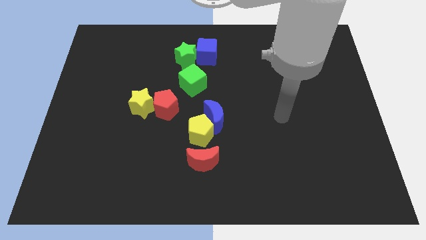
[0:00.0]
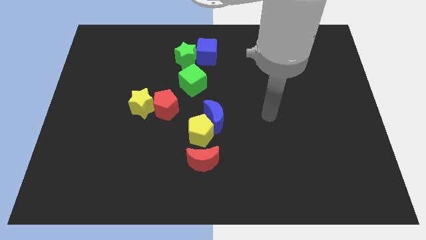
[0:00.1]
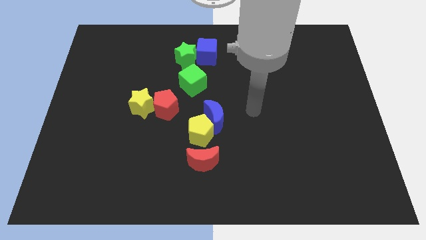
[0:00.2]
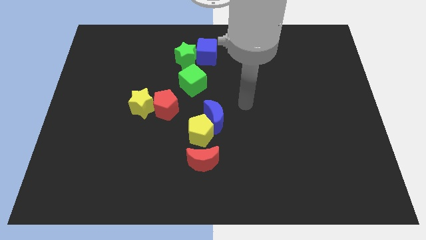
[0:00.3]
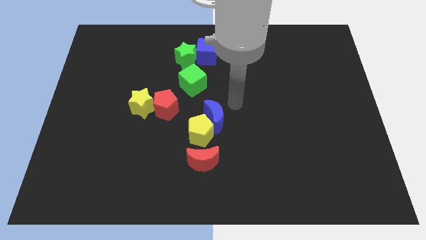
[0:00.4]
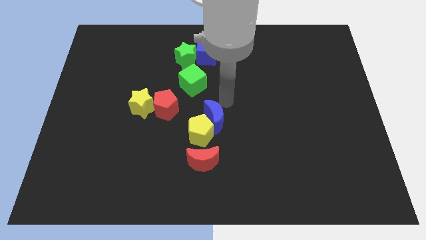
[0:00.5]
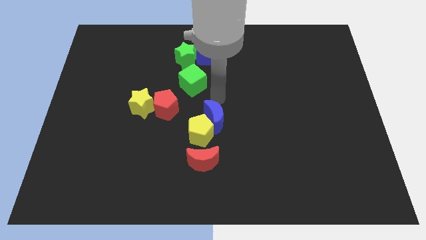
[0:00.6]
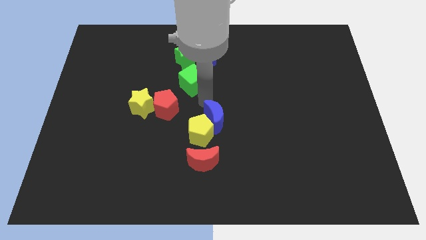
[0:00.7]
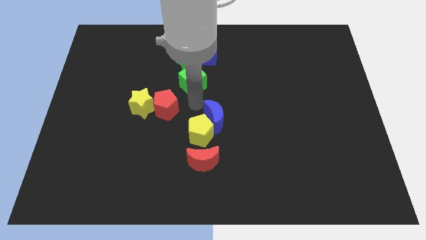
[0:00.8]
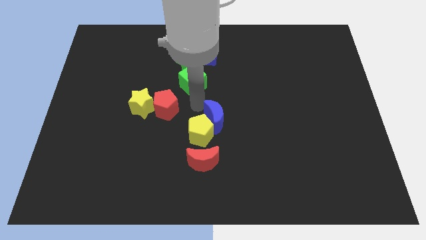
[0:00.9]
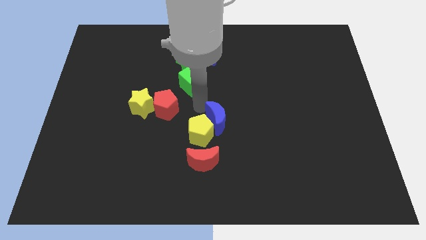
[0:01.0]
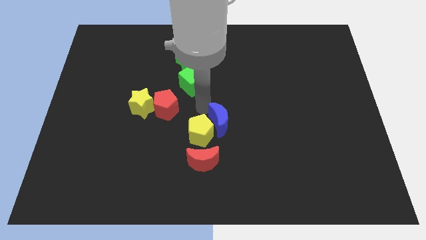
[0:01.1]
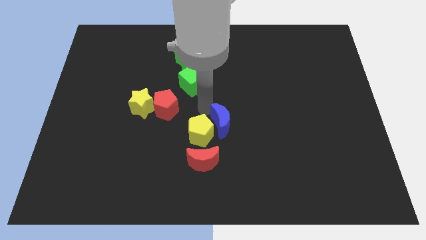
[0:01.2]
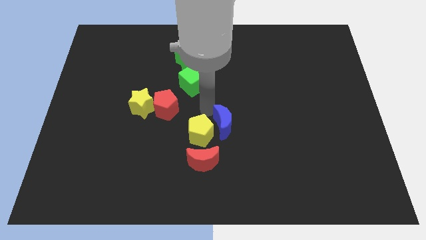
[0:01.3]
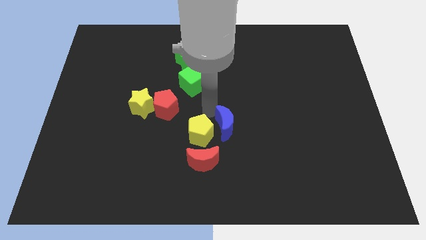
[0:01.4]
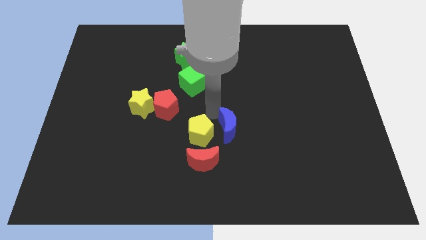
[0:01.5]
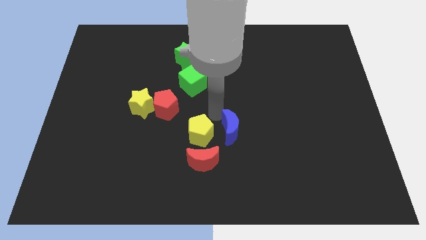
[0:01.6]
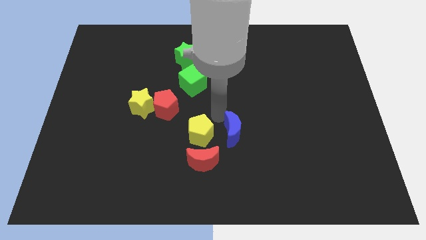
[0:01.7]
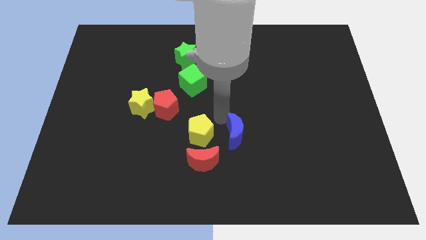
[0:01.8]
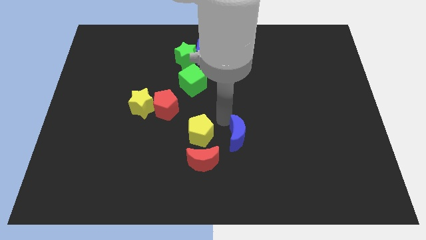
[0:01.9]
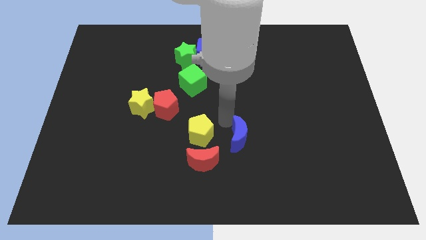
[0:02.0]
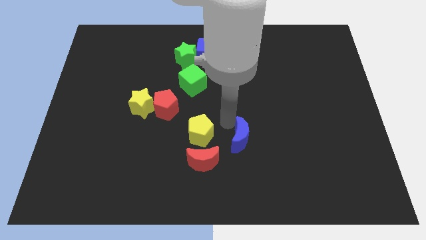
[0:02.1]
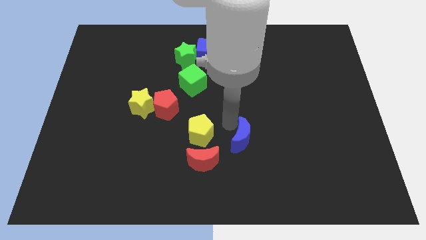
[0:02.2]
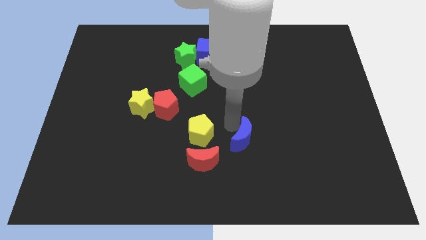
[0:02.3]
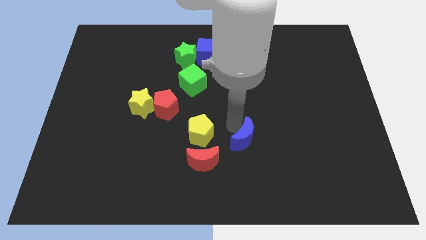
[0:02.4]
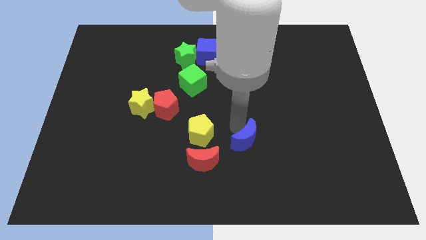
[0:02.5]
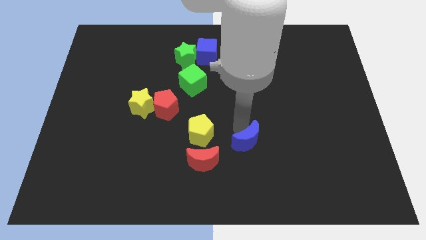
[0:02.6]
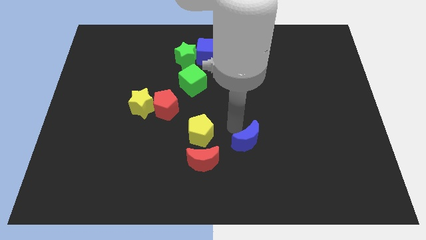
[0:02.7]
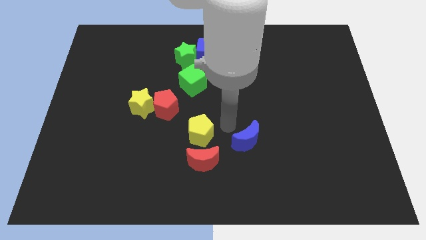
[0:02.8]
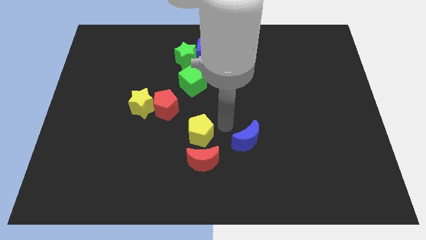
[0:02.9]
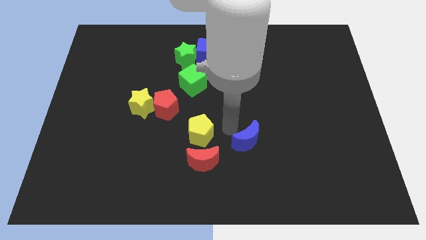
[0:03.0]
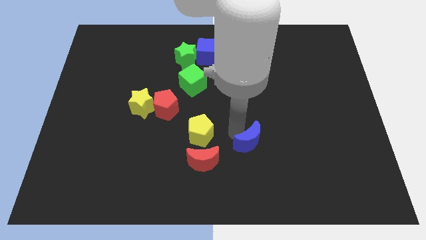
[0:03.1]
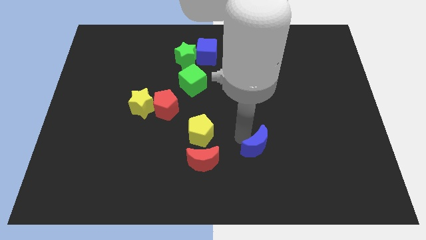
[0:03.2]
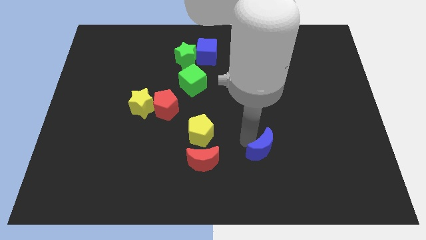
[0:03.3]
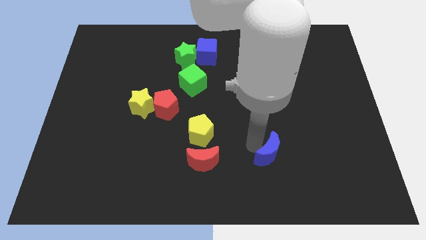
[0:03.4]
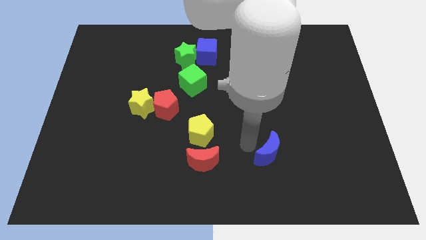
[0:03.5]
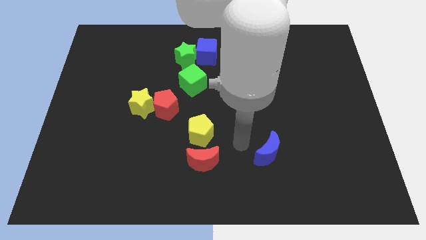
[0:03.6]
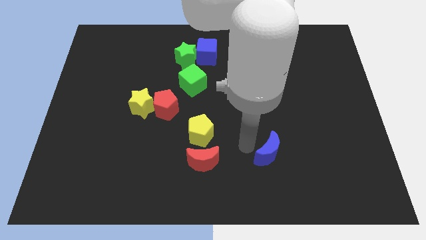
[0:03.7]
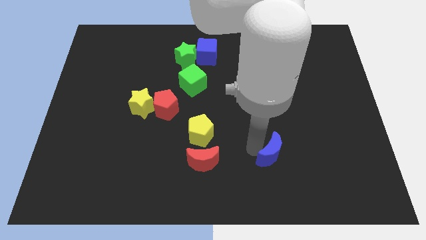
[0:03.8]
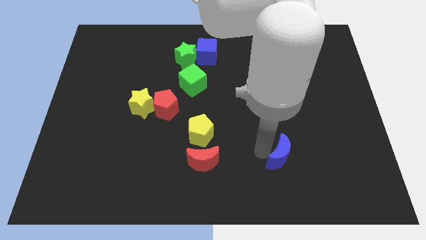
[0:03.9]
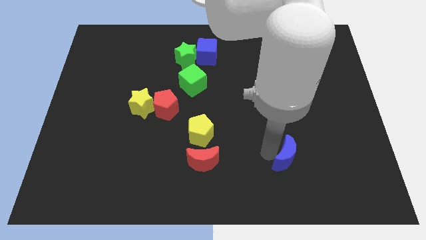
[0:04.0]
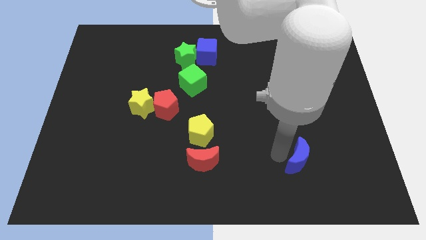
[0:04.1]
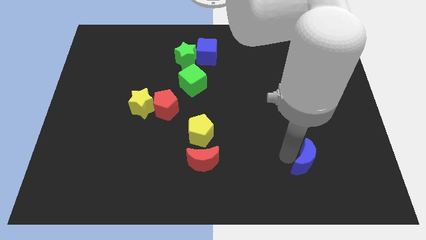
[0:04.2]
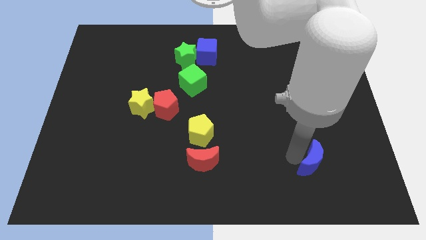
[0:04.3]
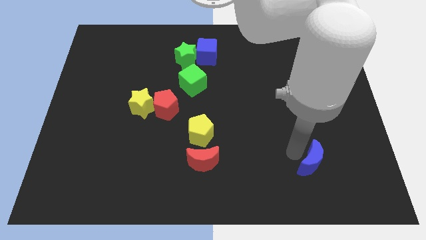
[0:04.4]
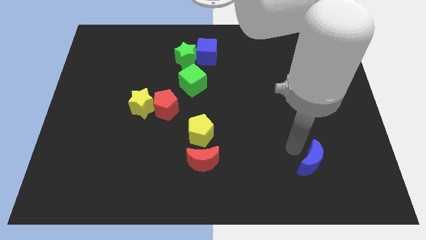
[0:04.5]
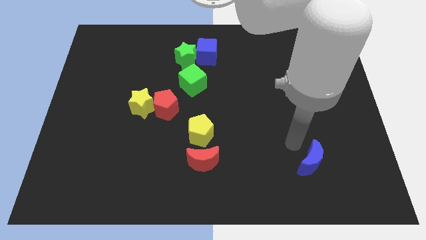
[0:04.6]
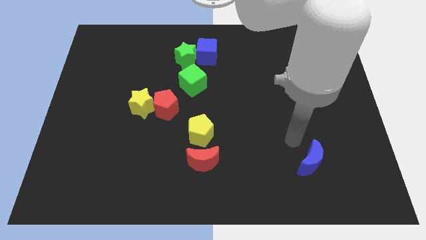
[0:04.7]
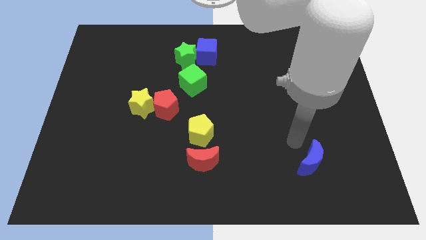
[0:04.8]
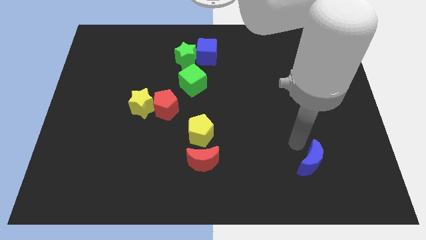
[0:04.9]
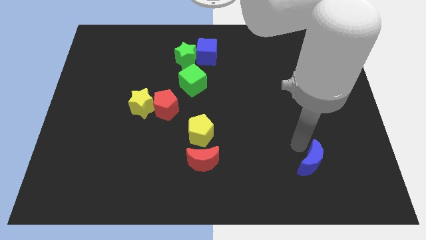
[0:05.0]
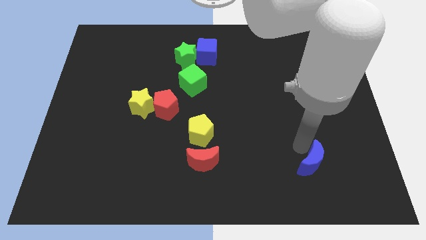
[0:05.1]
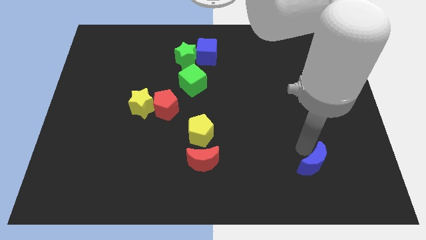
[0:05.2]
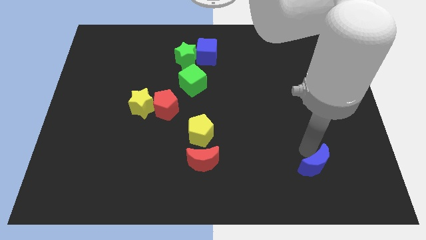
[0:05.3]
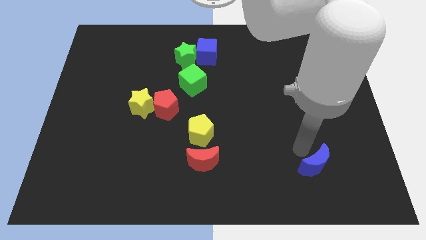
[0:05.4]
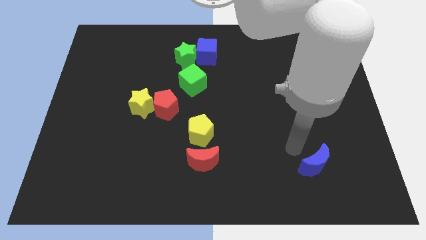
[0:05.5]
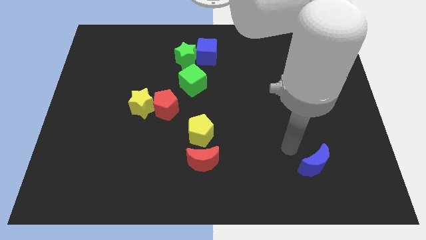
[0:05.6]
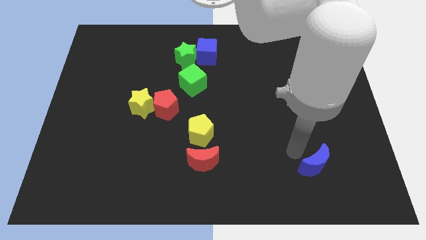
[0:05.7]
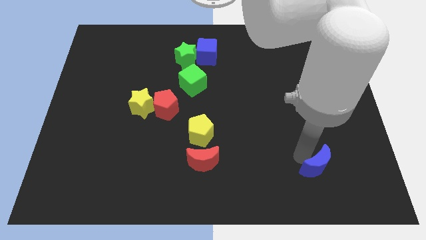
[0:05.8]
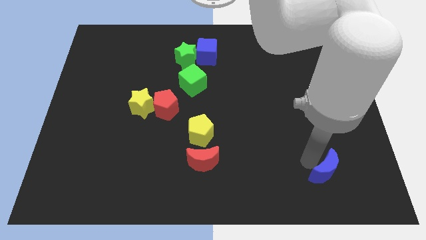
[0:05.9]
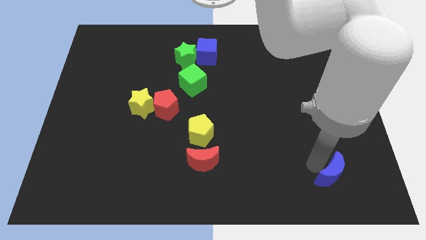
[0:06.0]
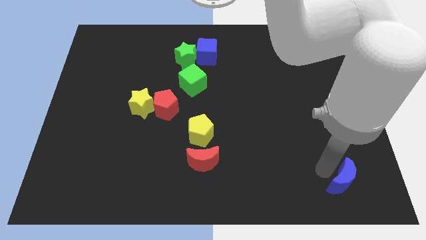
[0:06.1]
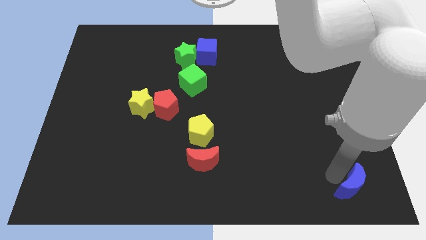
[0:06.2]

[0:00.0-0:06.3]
slide the blue moon to the bottom right
